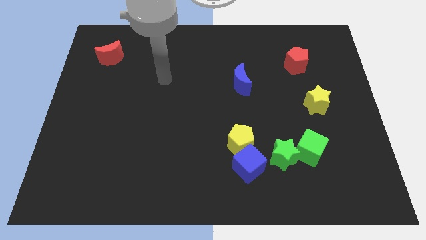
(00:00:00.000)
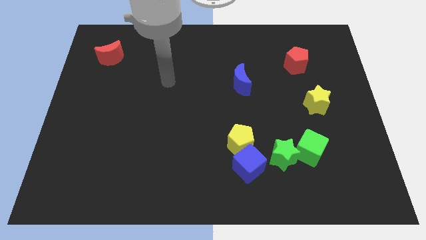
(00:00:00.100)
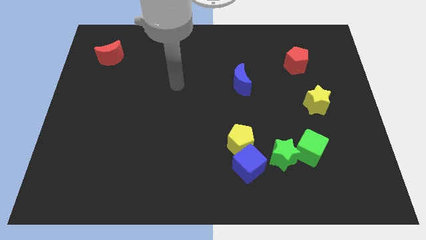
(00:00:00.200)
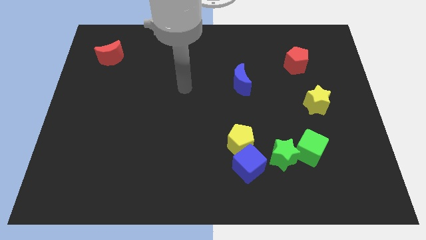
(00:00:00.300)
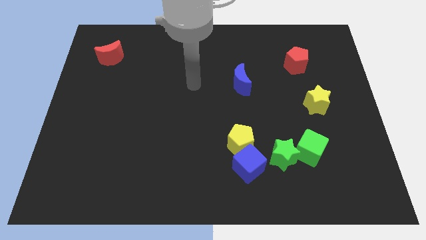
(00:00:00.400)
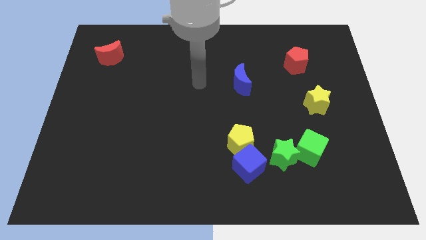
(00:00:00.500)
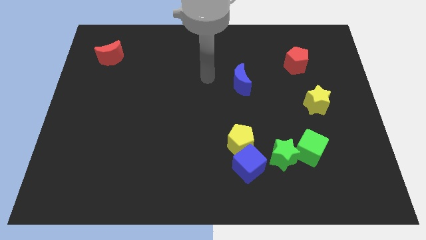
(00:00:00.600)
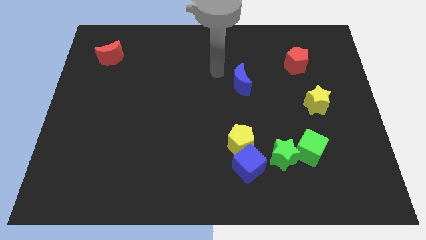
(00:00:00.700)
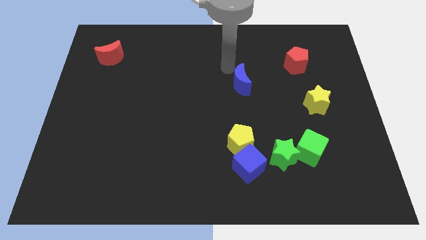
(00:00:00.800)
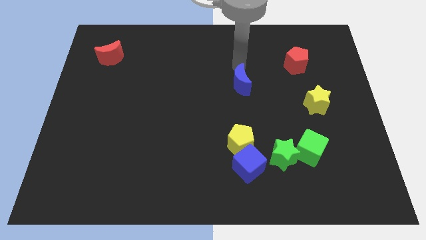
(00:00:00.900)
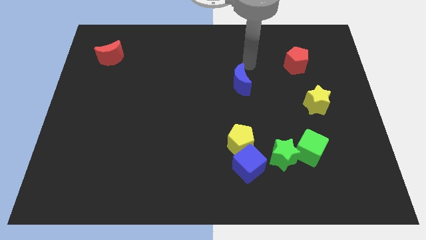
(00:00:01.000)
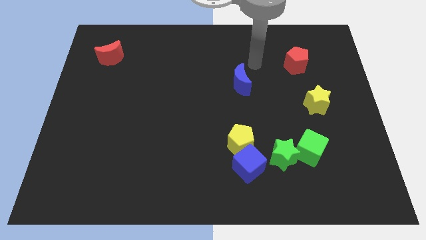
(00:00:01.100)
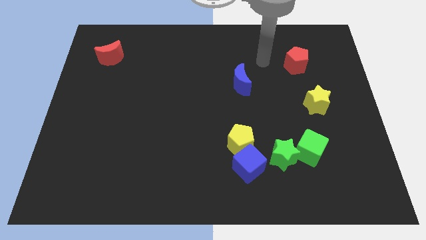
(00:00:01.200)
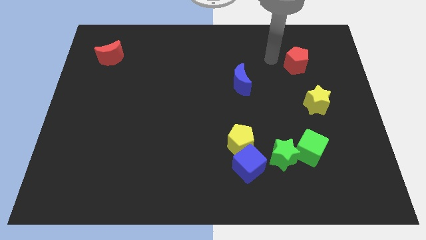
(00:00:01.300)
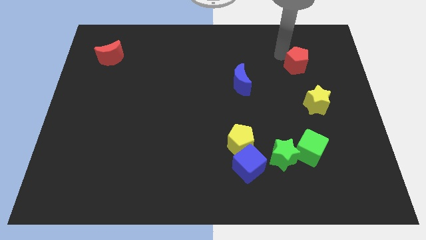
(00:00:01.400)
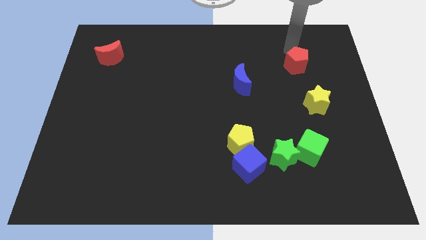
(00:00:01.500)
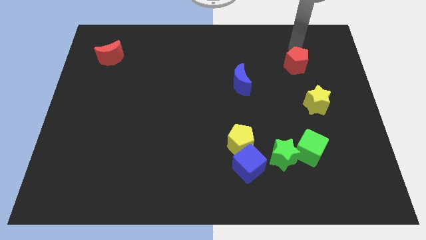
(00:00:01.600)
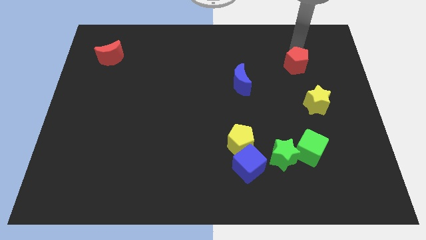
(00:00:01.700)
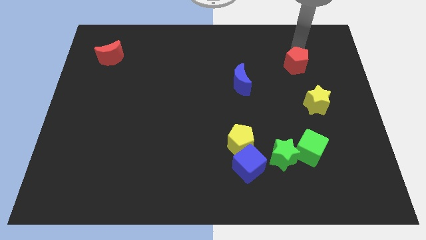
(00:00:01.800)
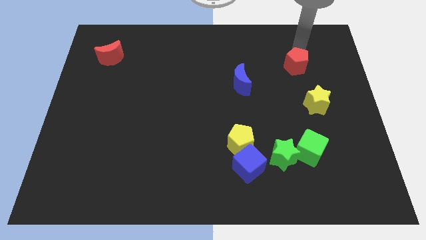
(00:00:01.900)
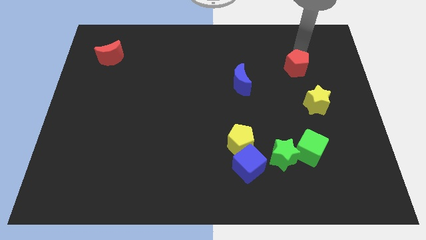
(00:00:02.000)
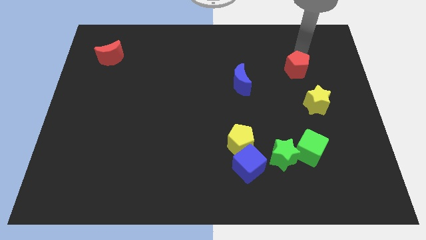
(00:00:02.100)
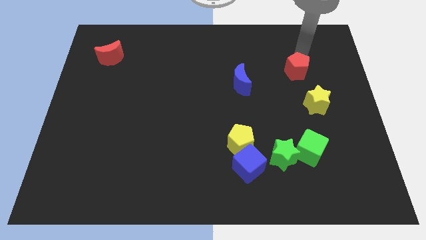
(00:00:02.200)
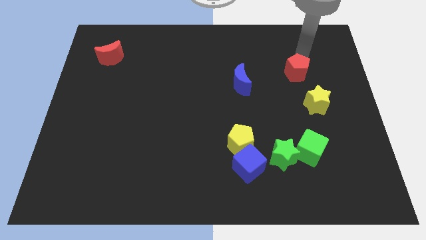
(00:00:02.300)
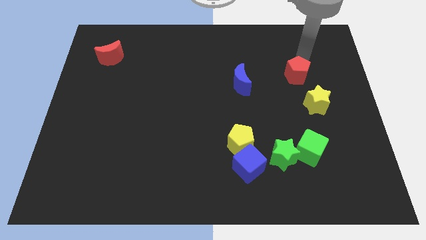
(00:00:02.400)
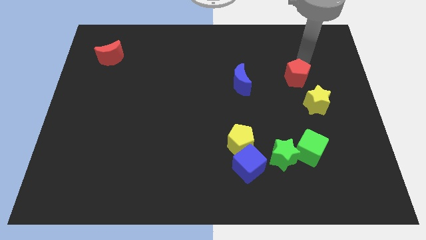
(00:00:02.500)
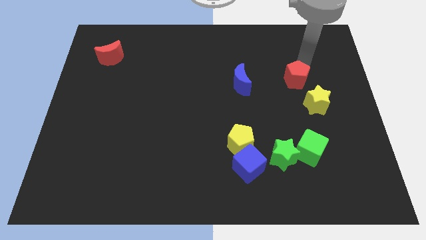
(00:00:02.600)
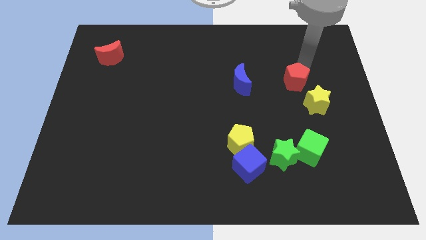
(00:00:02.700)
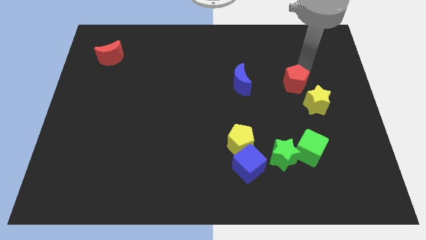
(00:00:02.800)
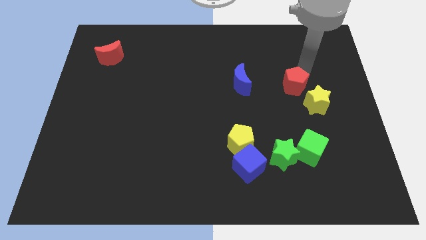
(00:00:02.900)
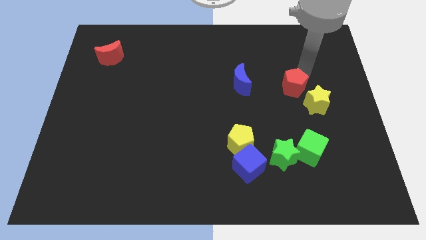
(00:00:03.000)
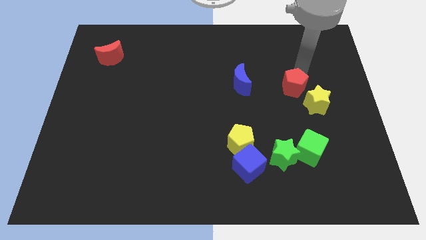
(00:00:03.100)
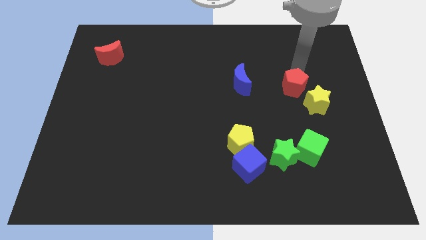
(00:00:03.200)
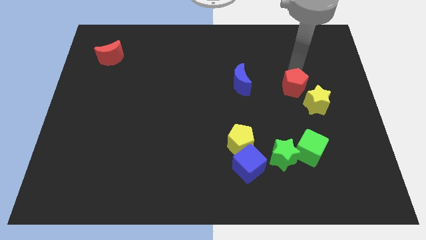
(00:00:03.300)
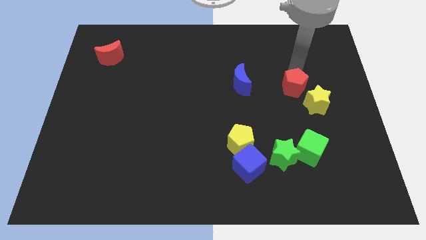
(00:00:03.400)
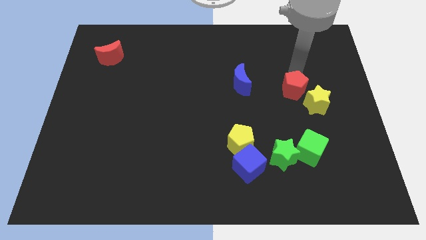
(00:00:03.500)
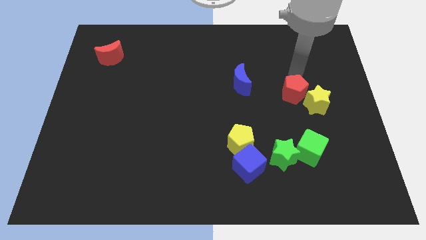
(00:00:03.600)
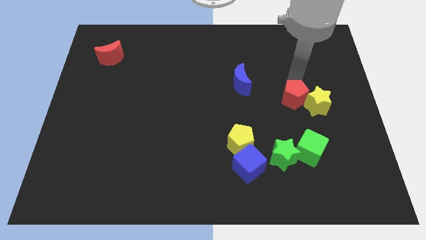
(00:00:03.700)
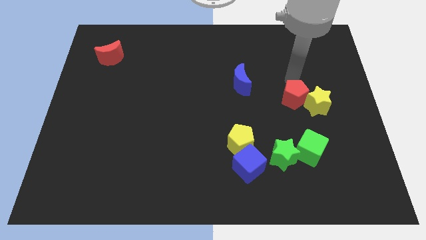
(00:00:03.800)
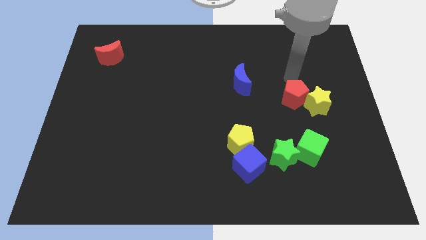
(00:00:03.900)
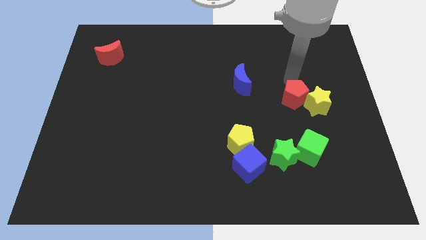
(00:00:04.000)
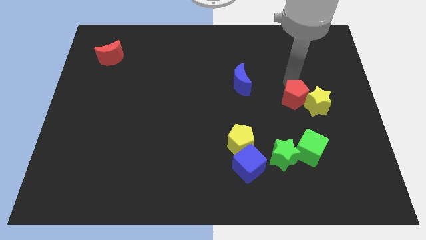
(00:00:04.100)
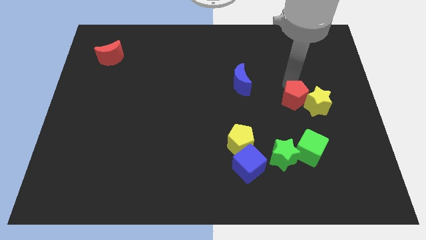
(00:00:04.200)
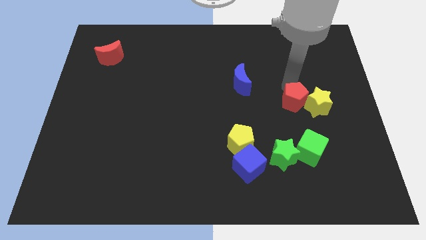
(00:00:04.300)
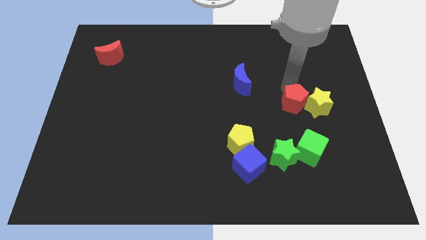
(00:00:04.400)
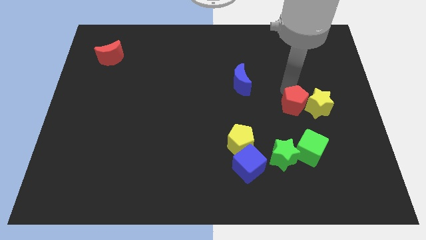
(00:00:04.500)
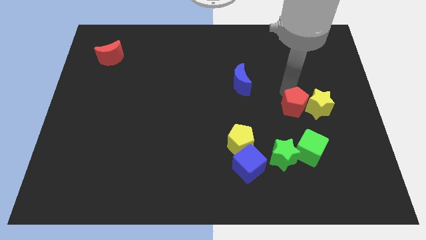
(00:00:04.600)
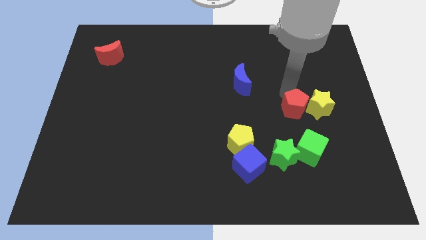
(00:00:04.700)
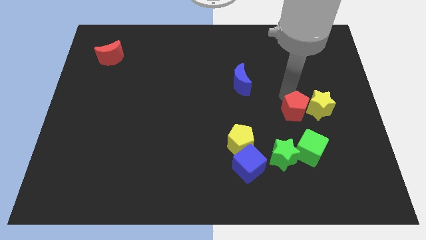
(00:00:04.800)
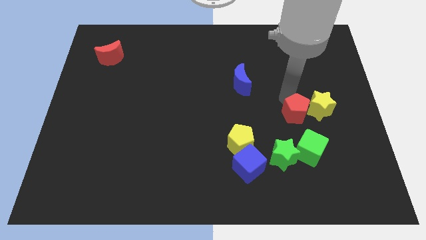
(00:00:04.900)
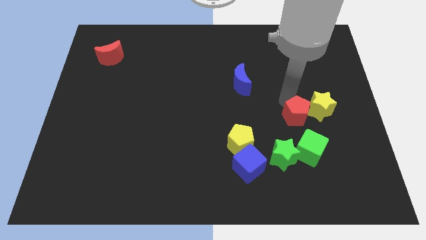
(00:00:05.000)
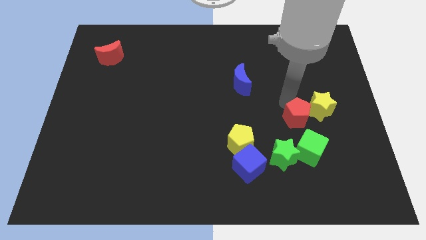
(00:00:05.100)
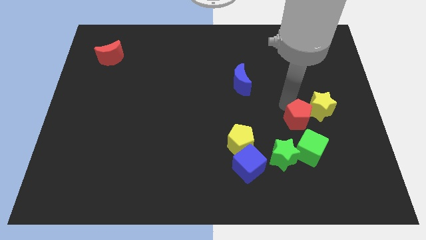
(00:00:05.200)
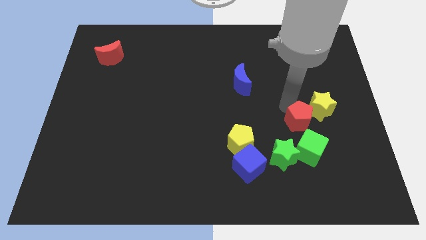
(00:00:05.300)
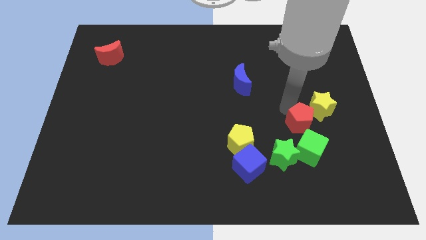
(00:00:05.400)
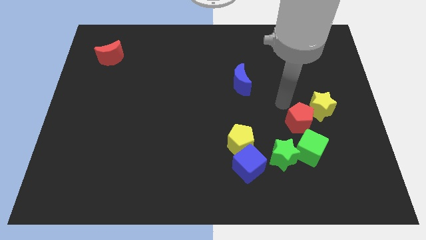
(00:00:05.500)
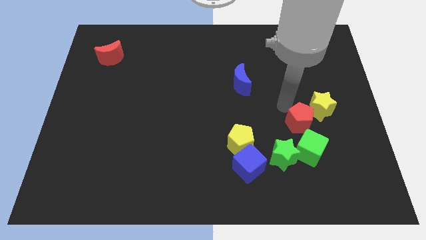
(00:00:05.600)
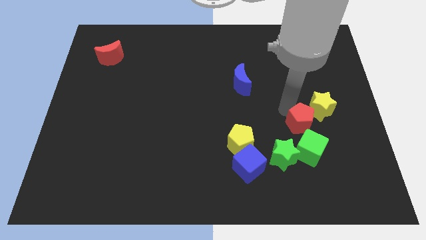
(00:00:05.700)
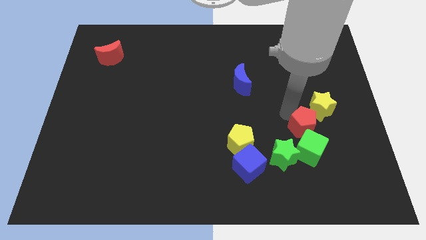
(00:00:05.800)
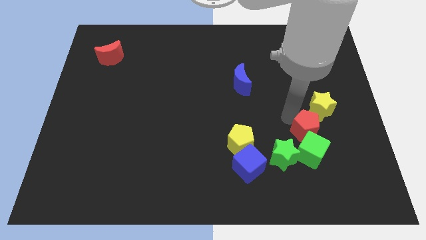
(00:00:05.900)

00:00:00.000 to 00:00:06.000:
slide the red pentagon downwards

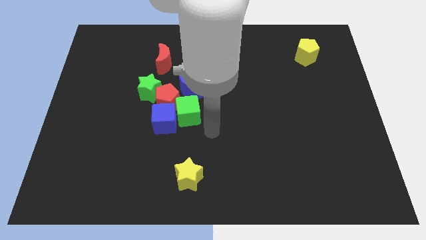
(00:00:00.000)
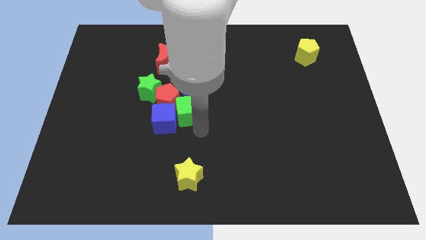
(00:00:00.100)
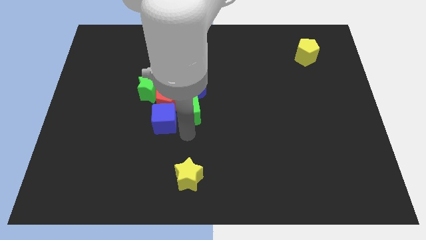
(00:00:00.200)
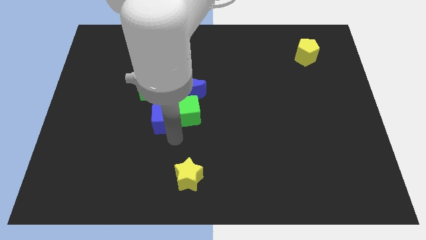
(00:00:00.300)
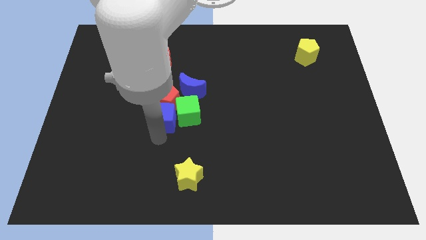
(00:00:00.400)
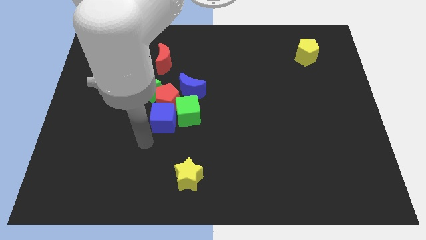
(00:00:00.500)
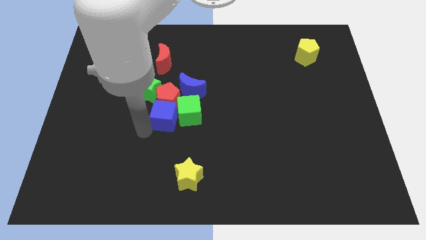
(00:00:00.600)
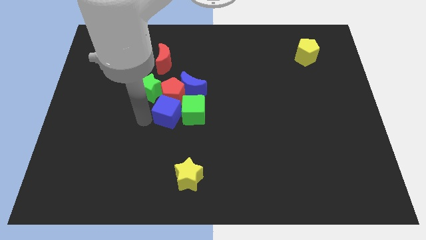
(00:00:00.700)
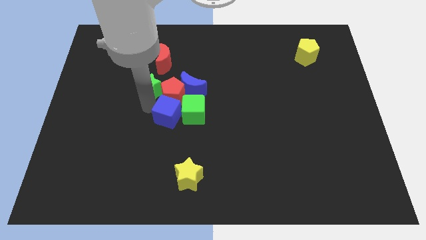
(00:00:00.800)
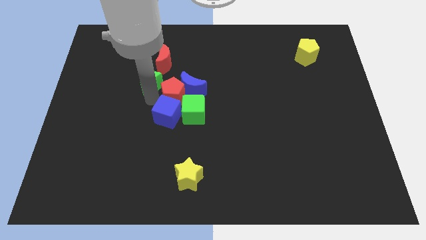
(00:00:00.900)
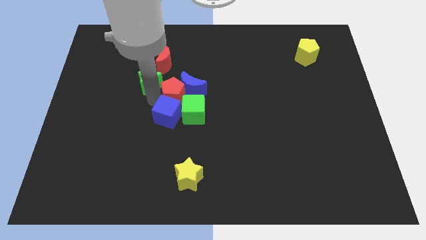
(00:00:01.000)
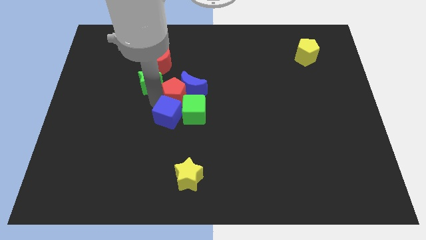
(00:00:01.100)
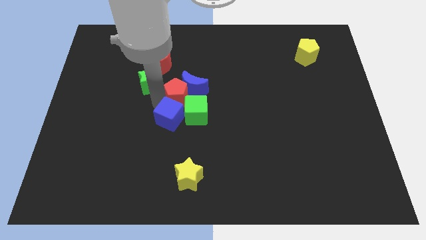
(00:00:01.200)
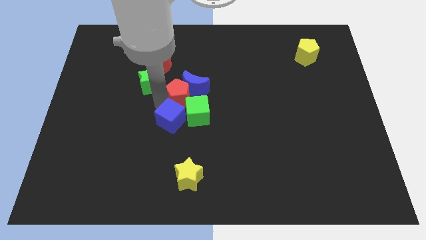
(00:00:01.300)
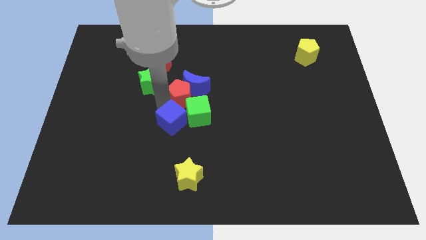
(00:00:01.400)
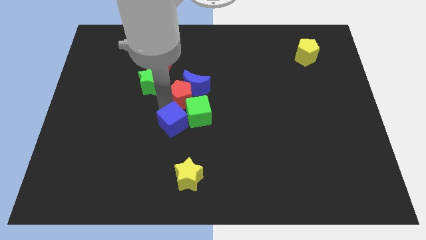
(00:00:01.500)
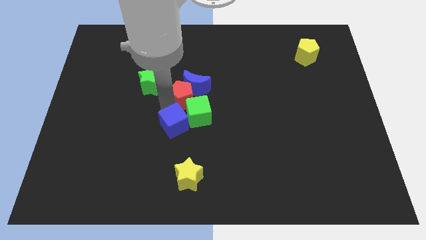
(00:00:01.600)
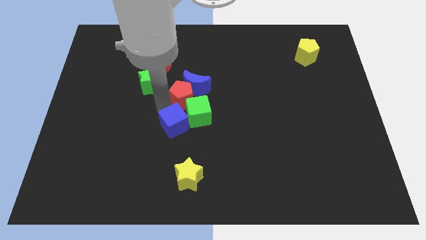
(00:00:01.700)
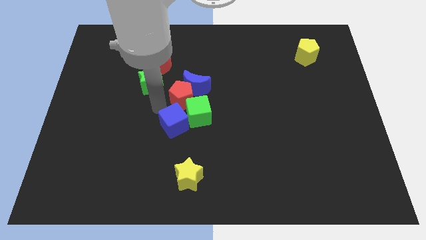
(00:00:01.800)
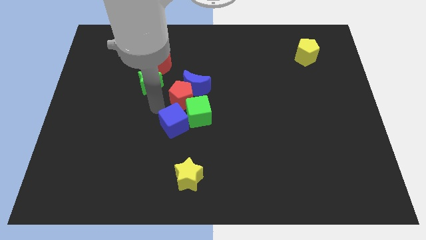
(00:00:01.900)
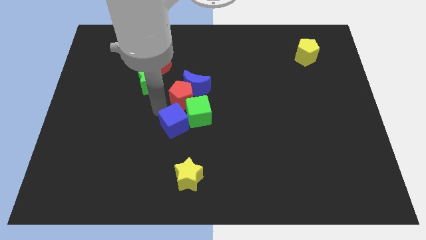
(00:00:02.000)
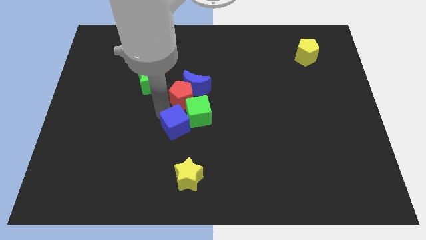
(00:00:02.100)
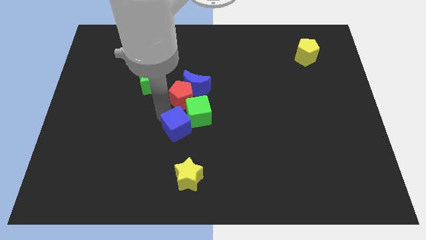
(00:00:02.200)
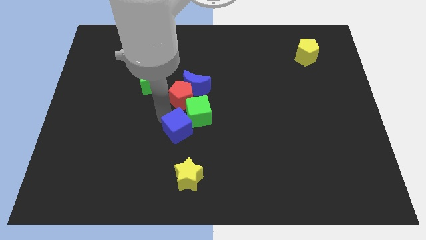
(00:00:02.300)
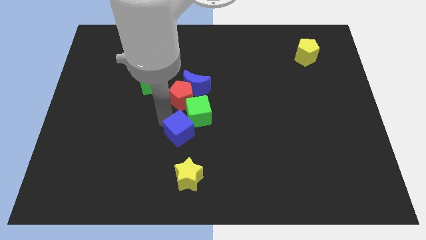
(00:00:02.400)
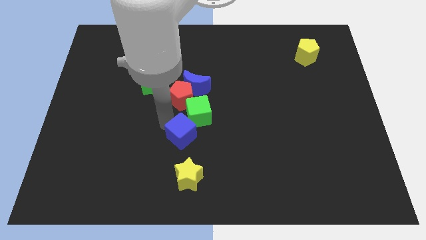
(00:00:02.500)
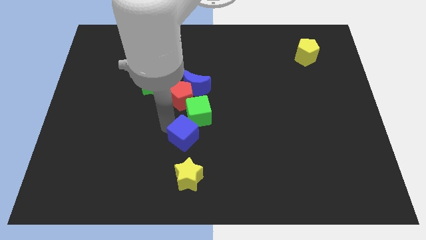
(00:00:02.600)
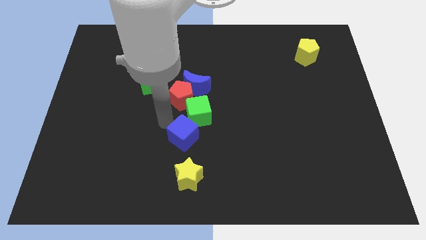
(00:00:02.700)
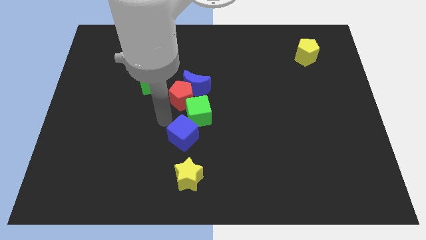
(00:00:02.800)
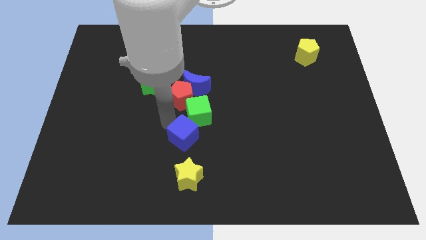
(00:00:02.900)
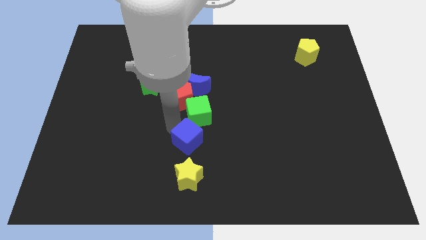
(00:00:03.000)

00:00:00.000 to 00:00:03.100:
slide the blue cube downwards and to the right diagonally somewhat
